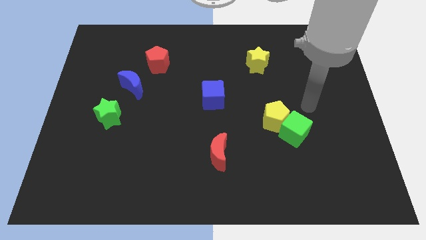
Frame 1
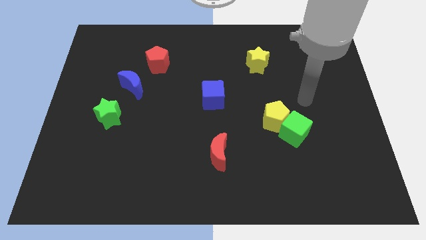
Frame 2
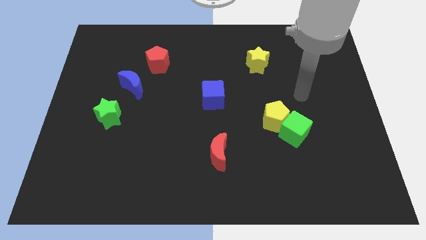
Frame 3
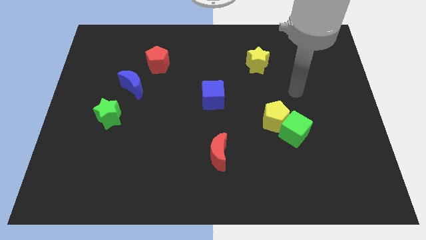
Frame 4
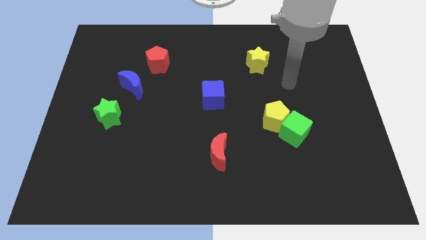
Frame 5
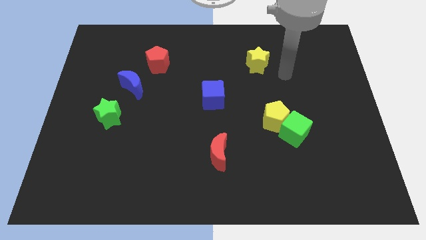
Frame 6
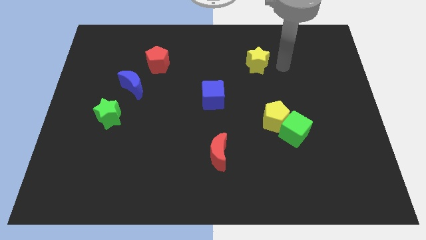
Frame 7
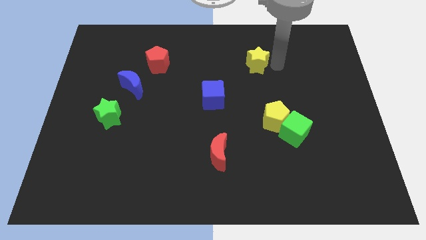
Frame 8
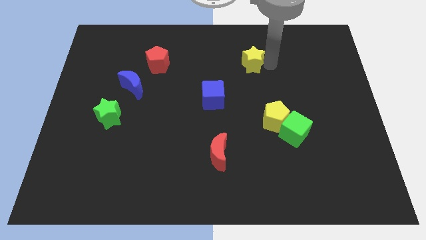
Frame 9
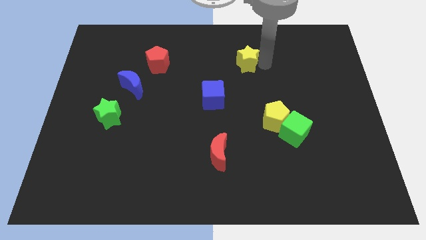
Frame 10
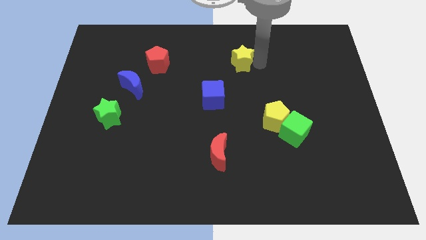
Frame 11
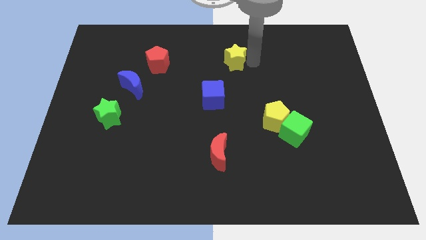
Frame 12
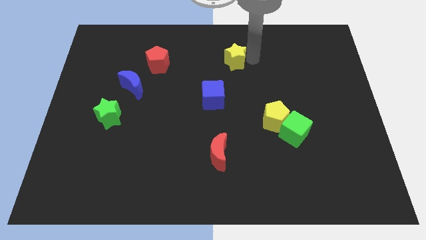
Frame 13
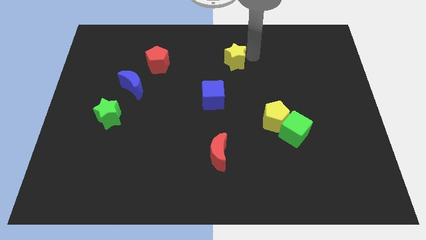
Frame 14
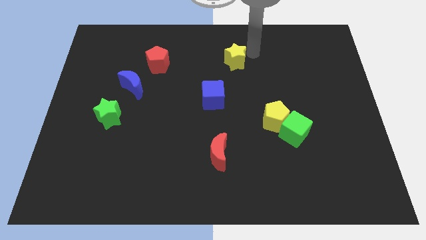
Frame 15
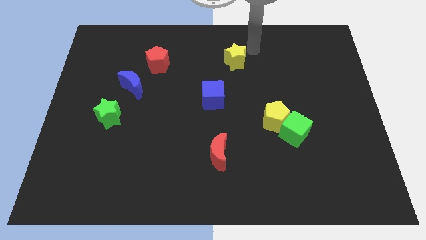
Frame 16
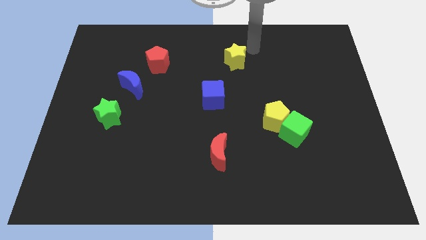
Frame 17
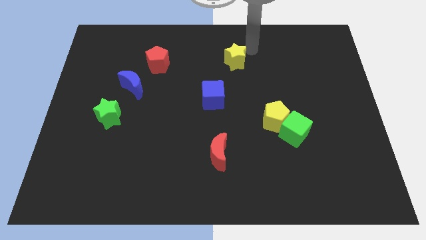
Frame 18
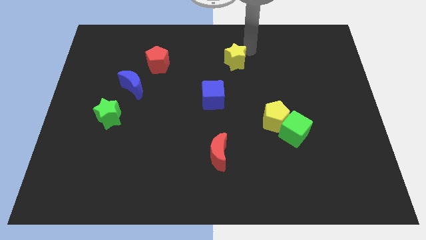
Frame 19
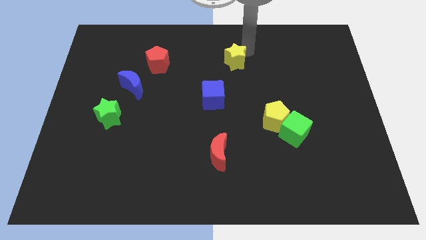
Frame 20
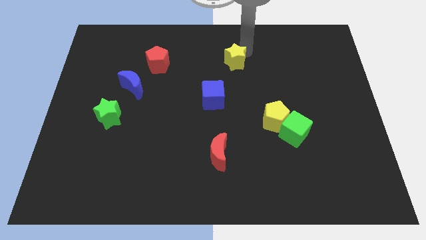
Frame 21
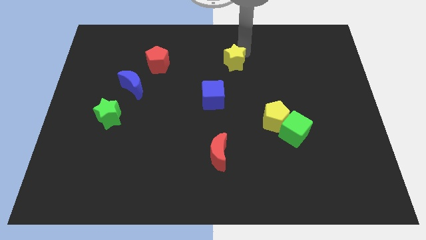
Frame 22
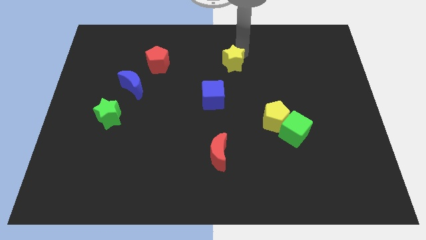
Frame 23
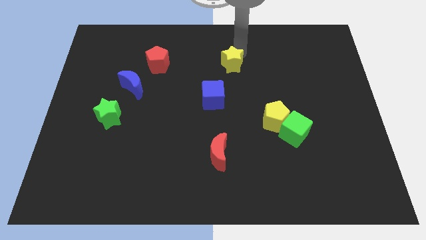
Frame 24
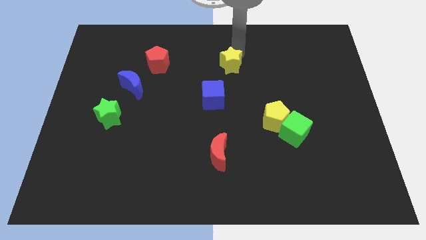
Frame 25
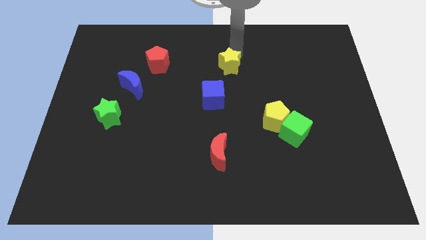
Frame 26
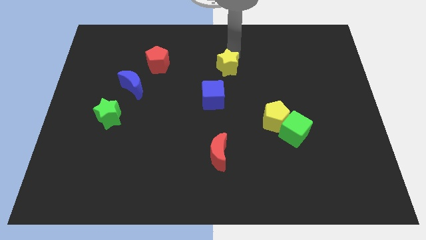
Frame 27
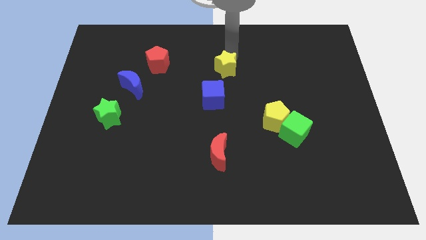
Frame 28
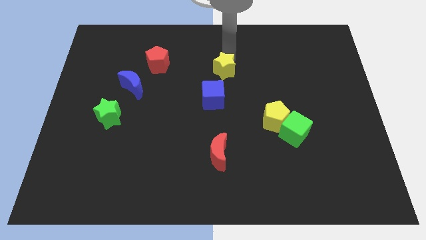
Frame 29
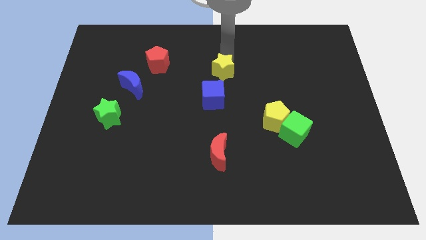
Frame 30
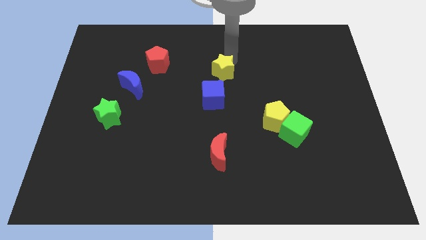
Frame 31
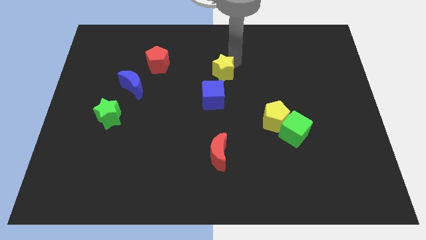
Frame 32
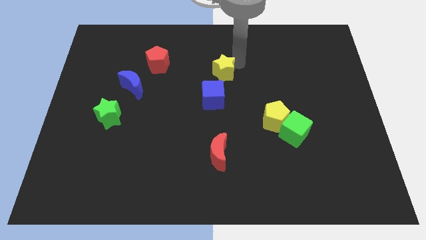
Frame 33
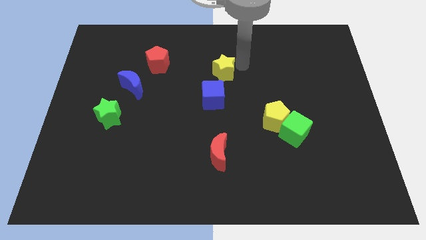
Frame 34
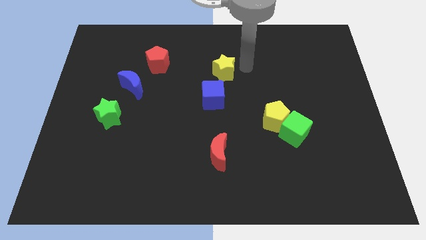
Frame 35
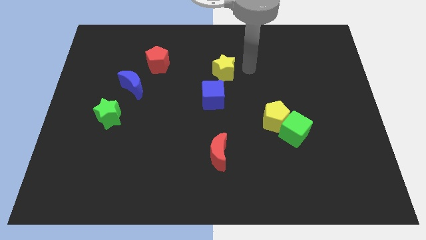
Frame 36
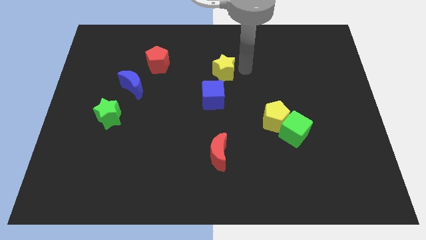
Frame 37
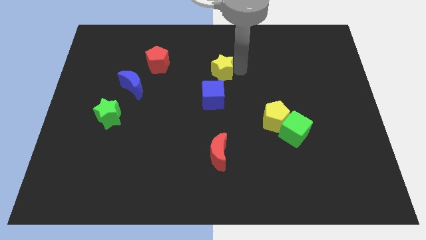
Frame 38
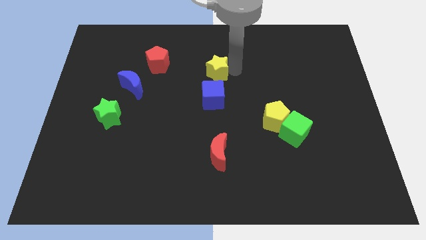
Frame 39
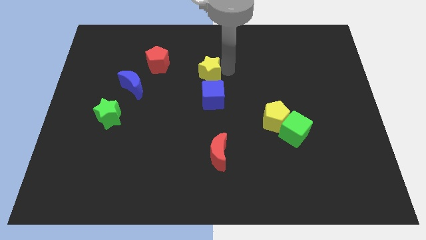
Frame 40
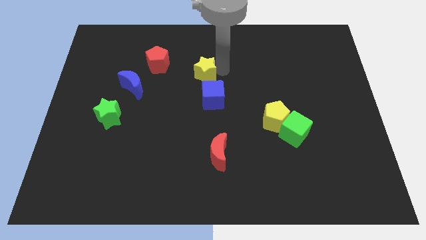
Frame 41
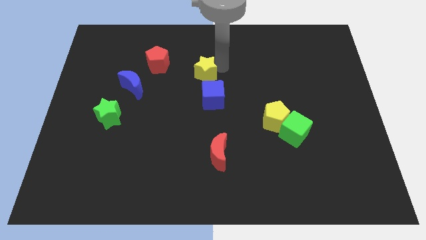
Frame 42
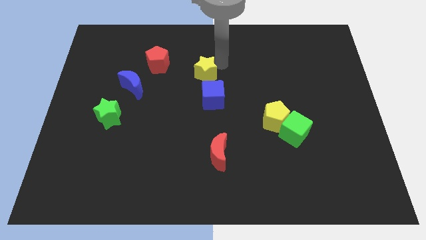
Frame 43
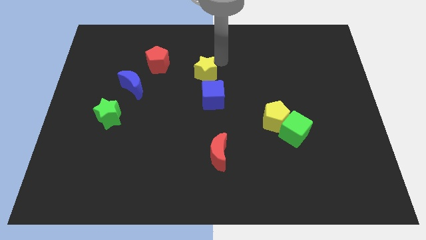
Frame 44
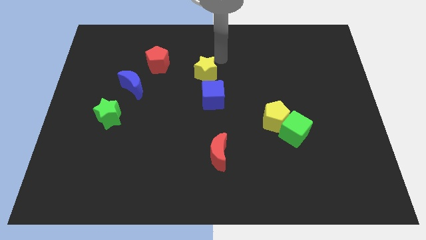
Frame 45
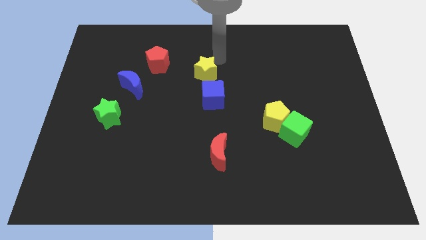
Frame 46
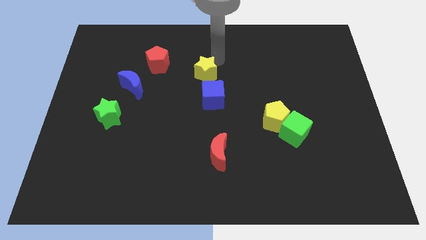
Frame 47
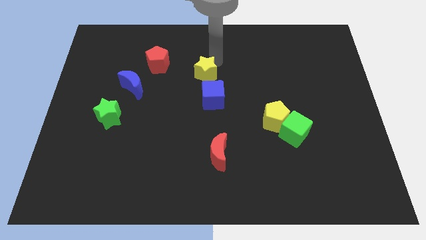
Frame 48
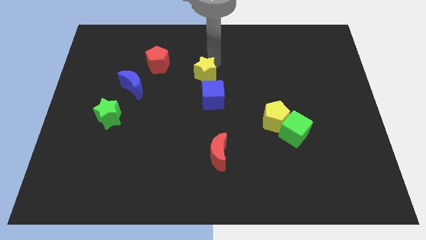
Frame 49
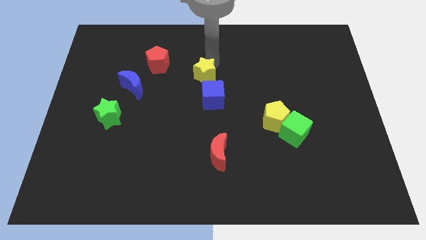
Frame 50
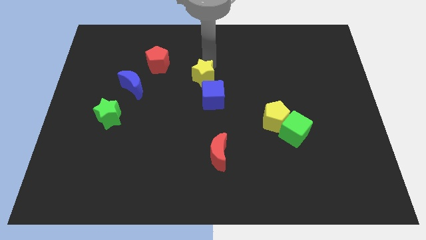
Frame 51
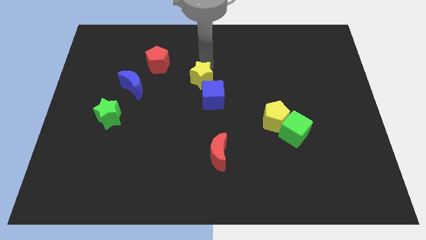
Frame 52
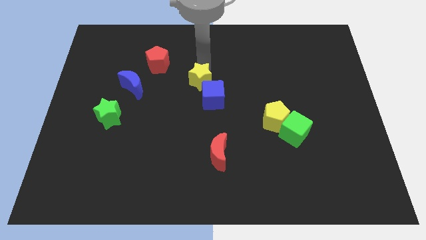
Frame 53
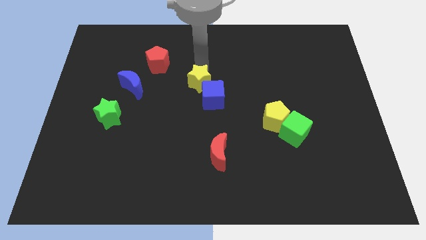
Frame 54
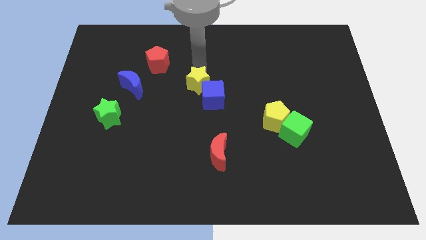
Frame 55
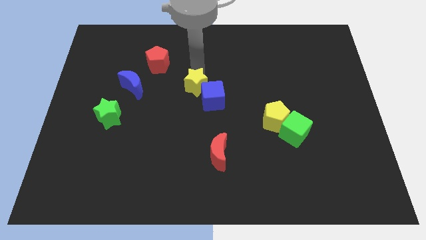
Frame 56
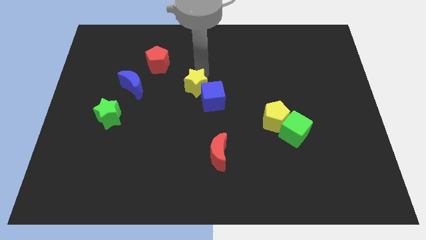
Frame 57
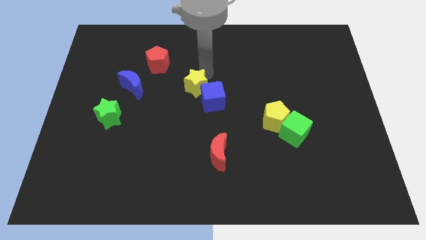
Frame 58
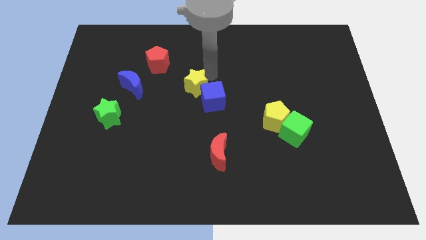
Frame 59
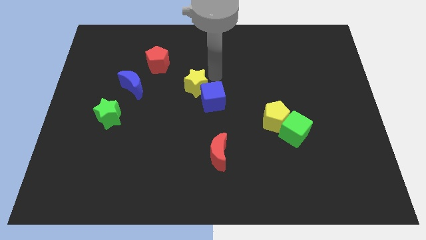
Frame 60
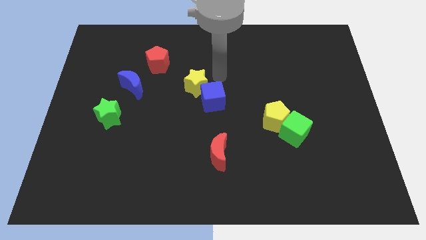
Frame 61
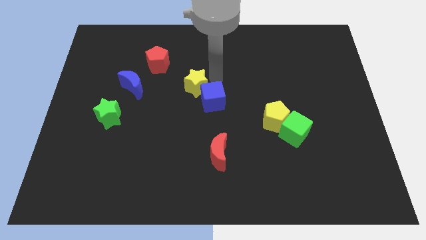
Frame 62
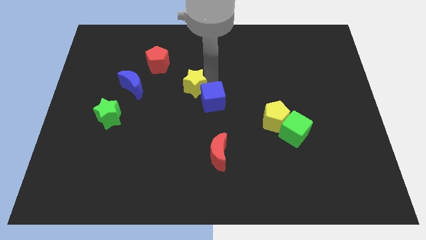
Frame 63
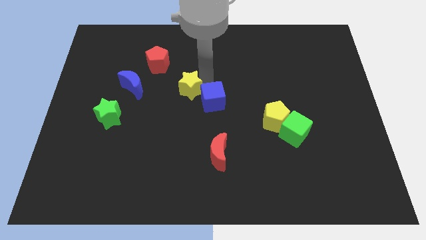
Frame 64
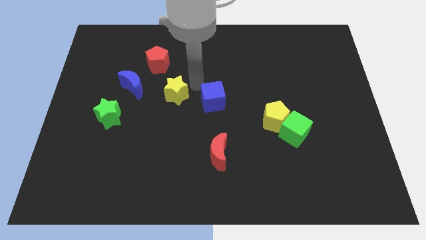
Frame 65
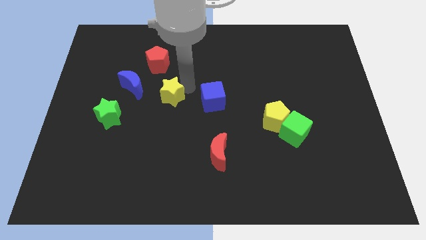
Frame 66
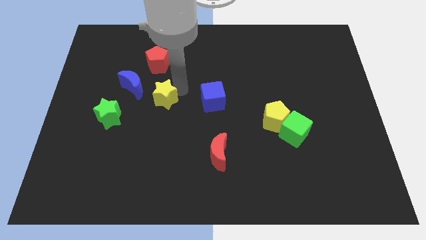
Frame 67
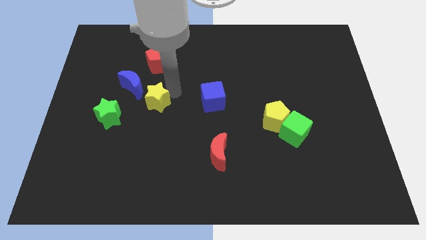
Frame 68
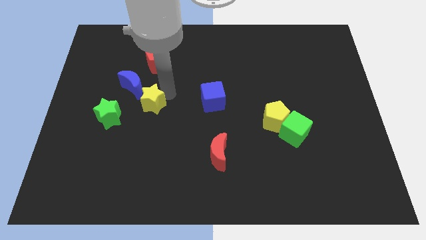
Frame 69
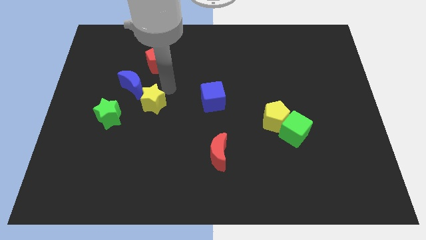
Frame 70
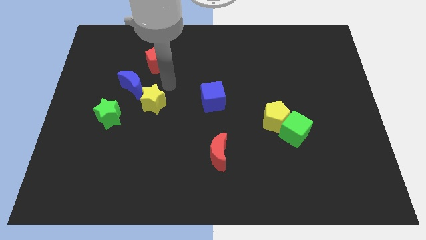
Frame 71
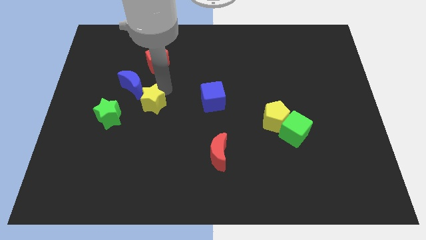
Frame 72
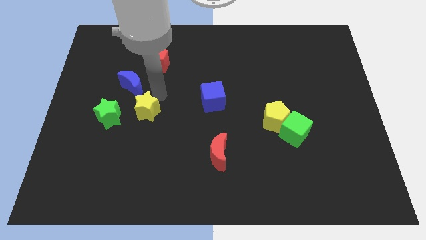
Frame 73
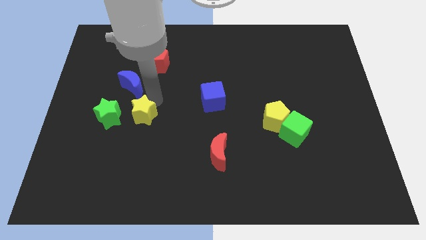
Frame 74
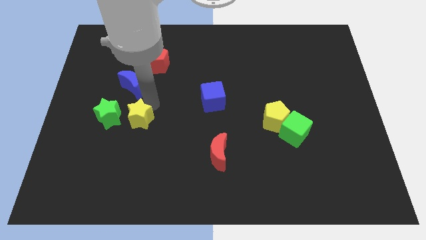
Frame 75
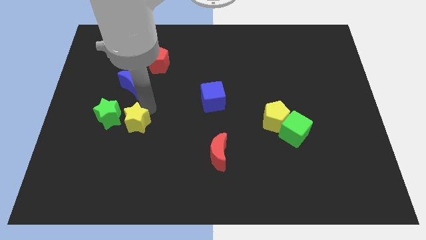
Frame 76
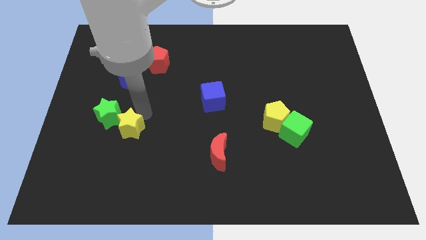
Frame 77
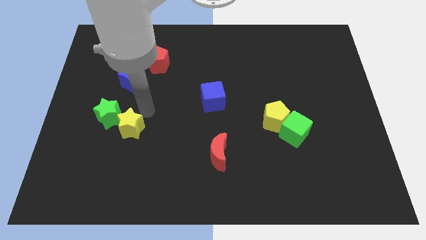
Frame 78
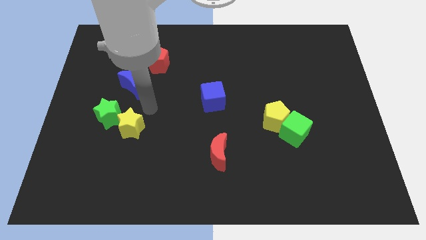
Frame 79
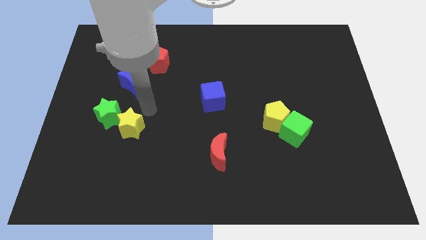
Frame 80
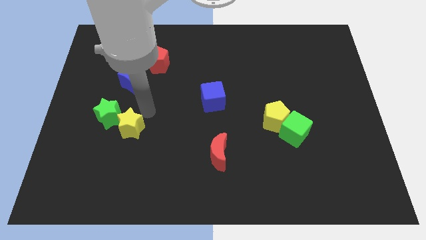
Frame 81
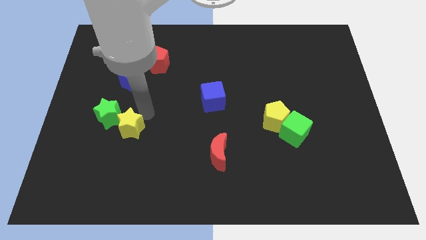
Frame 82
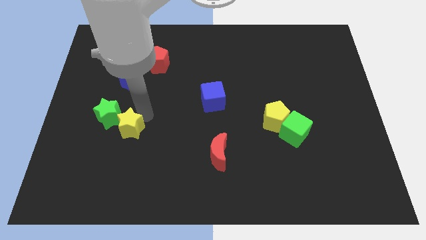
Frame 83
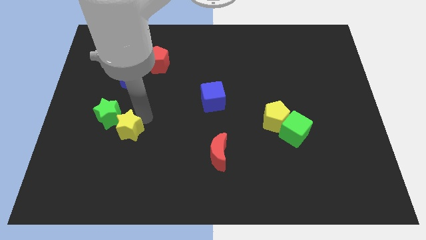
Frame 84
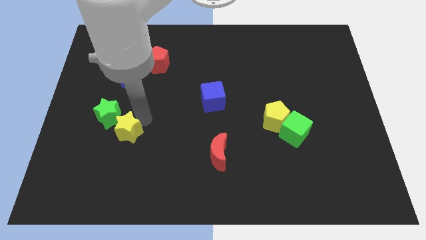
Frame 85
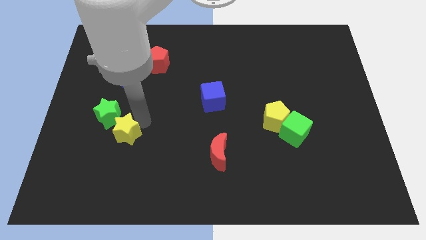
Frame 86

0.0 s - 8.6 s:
move the yellow star to the bottom side of the green star
